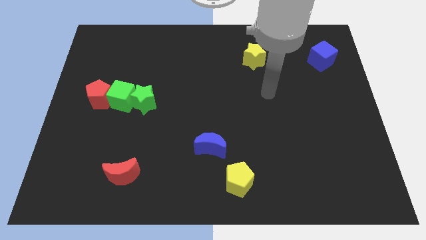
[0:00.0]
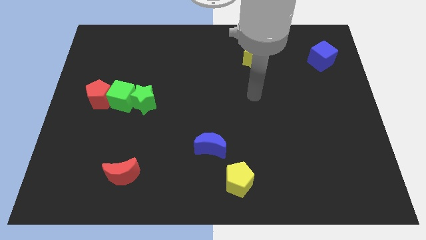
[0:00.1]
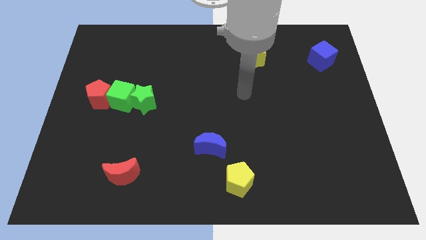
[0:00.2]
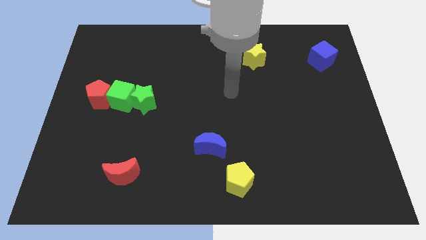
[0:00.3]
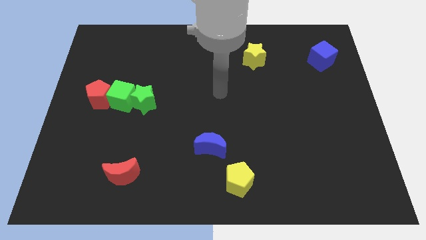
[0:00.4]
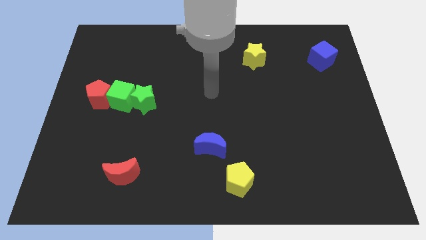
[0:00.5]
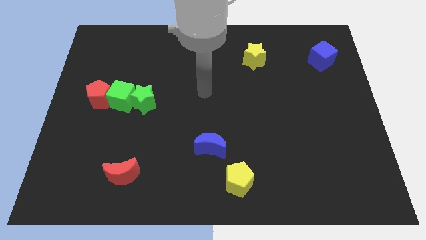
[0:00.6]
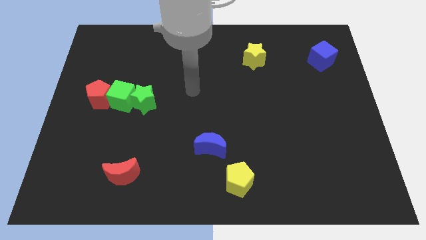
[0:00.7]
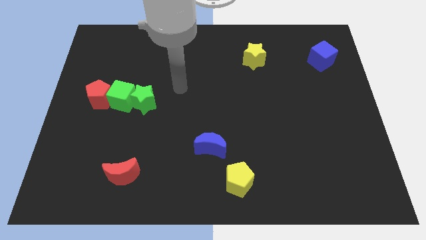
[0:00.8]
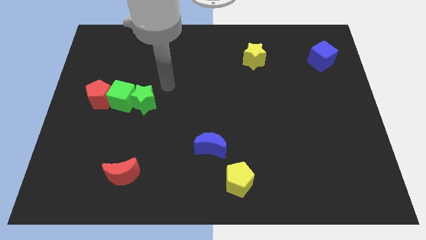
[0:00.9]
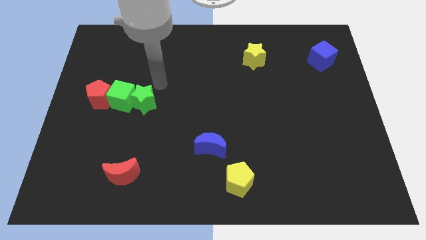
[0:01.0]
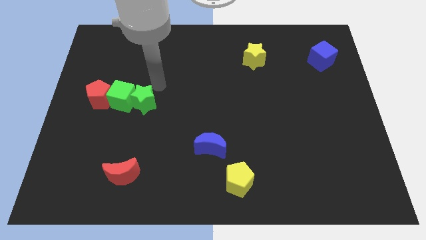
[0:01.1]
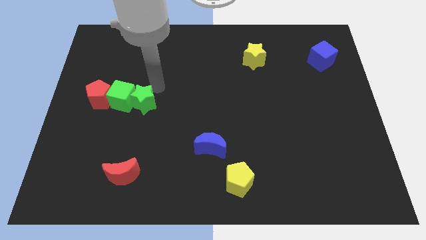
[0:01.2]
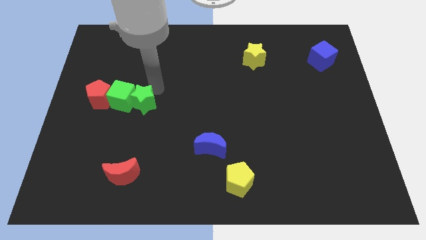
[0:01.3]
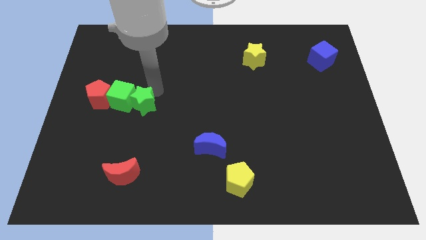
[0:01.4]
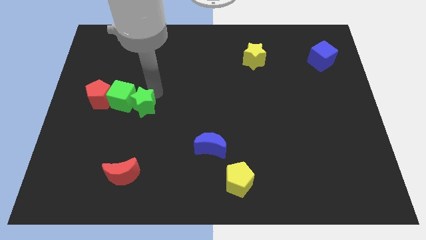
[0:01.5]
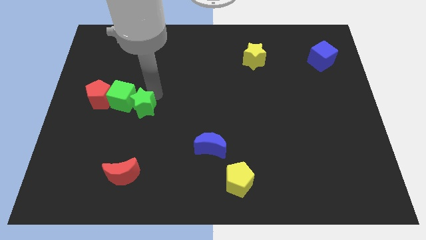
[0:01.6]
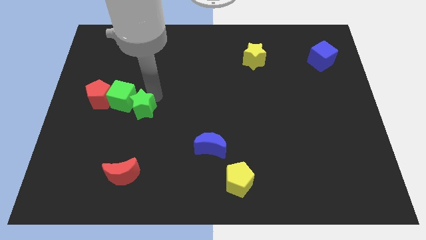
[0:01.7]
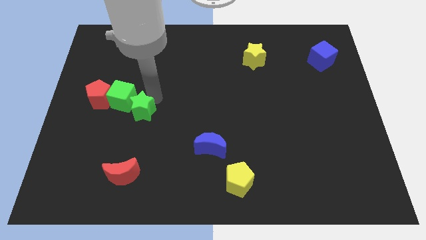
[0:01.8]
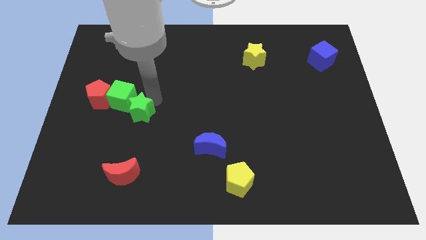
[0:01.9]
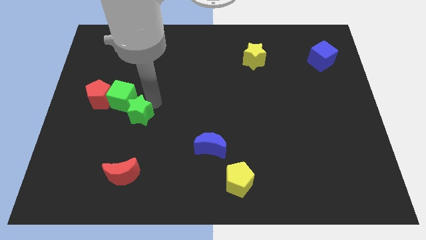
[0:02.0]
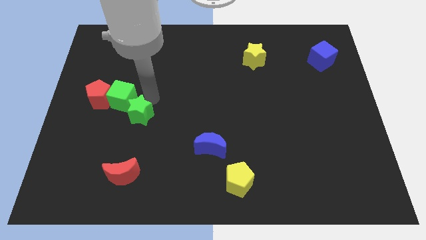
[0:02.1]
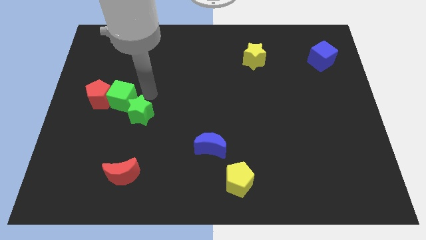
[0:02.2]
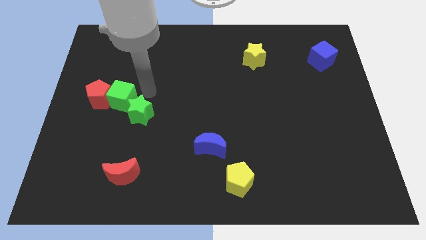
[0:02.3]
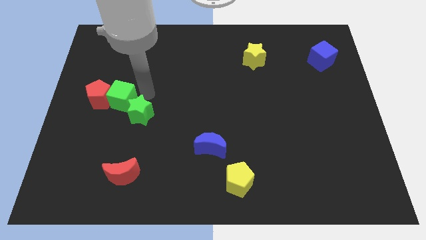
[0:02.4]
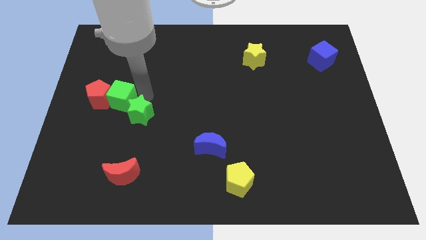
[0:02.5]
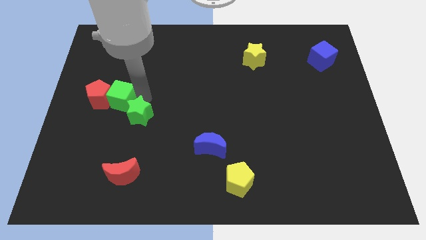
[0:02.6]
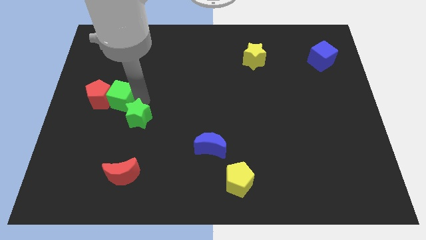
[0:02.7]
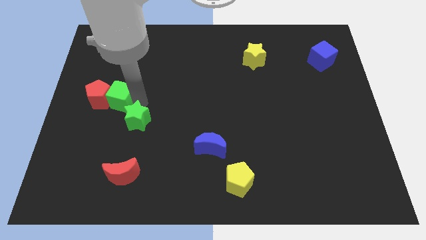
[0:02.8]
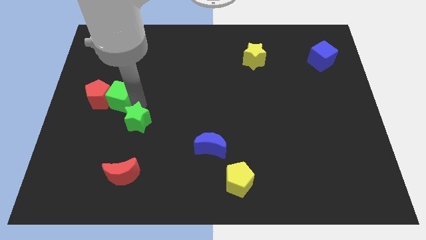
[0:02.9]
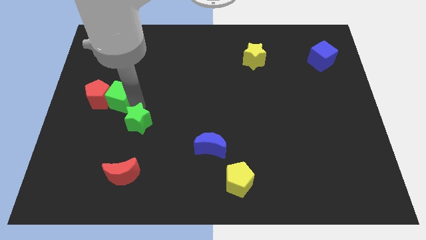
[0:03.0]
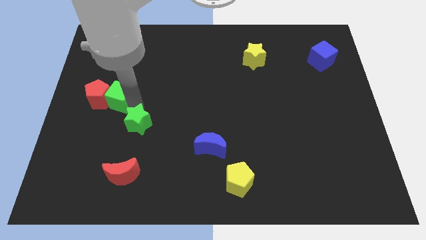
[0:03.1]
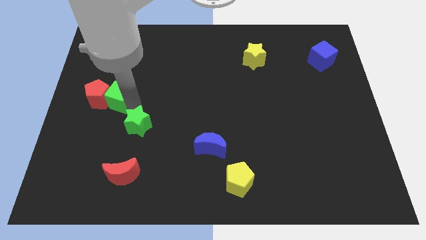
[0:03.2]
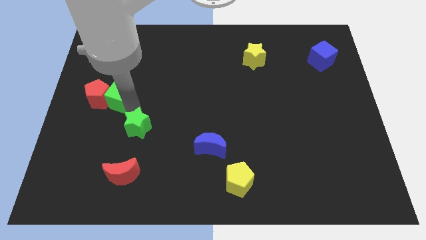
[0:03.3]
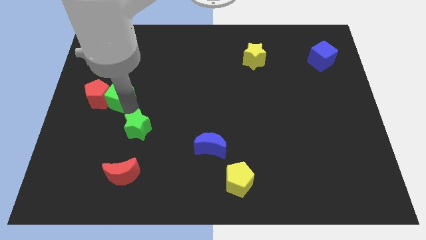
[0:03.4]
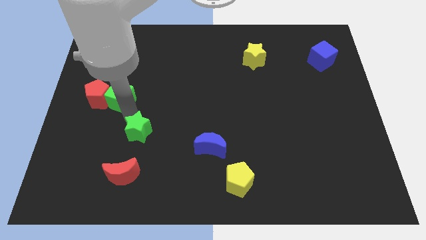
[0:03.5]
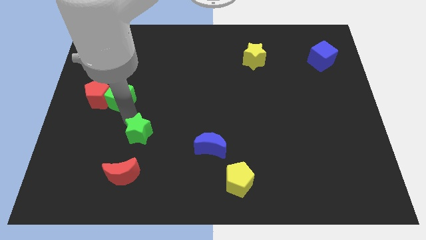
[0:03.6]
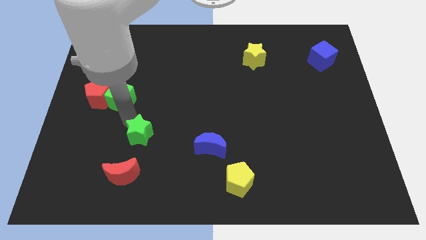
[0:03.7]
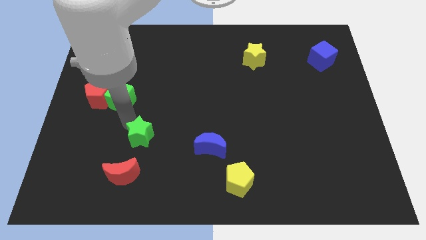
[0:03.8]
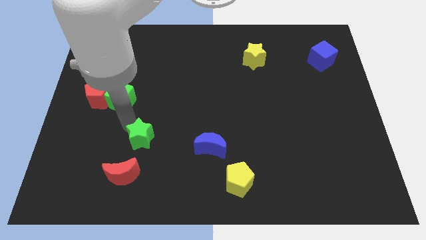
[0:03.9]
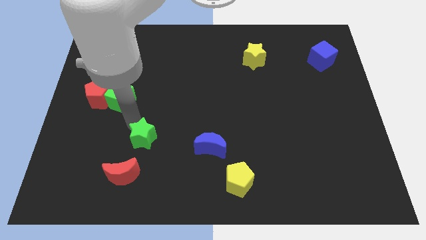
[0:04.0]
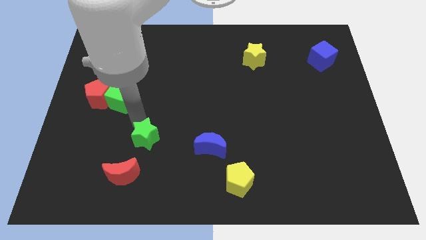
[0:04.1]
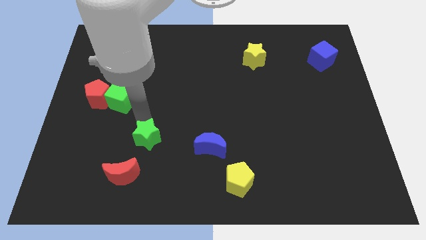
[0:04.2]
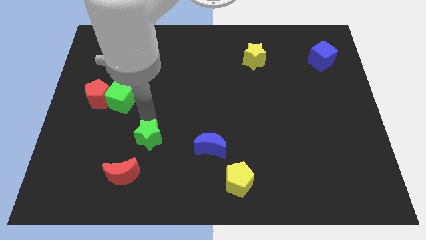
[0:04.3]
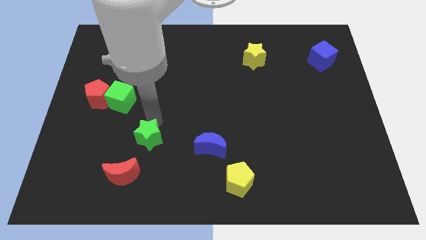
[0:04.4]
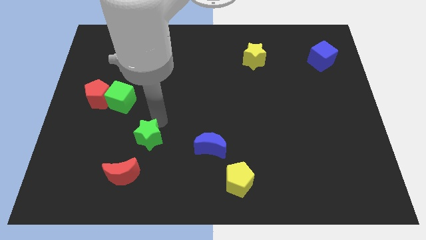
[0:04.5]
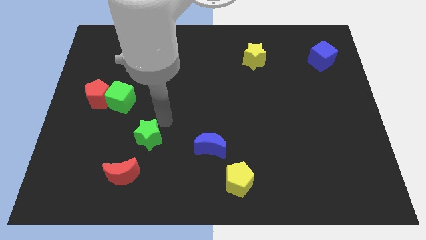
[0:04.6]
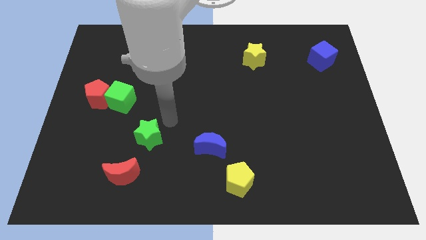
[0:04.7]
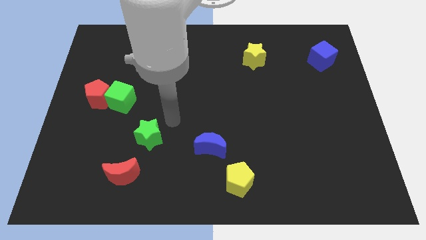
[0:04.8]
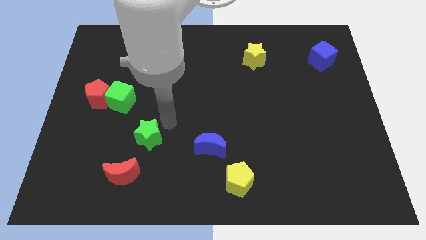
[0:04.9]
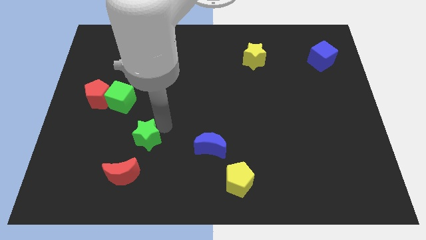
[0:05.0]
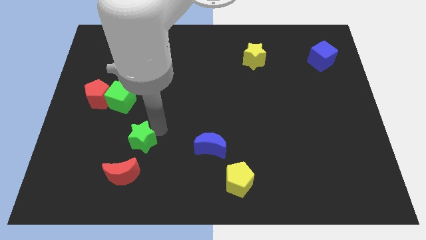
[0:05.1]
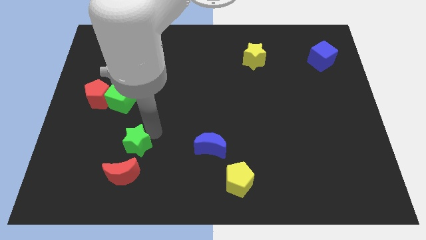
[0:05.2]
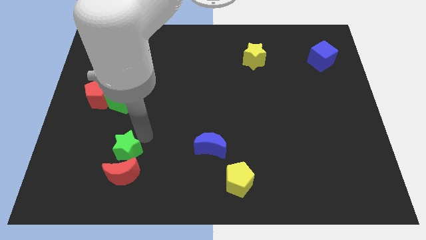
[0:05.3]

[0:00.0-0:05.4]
push the green star next to the red moon

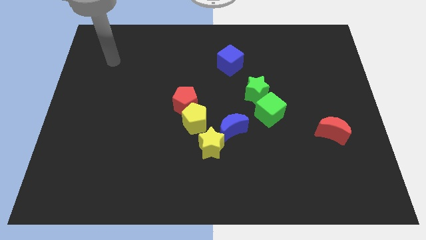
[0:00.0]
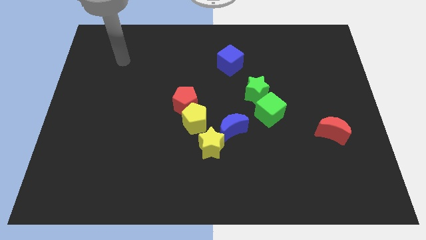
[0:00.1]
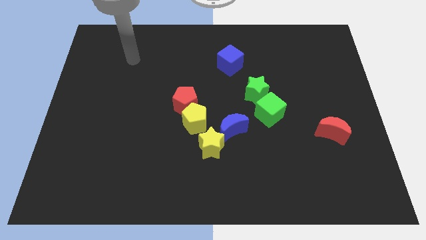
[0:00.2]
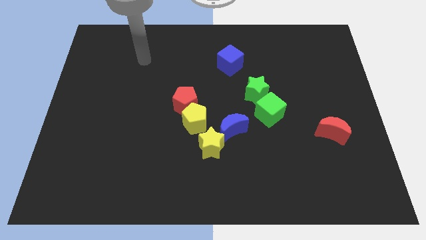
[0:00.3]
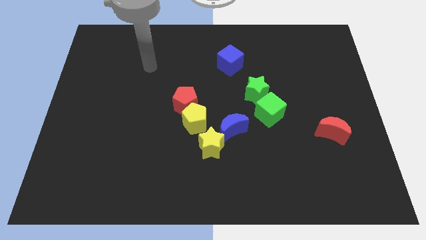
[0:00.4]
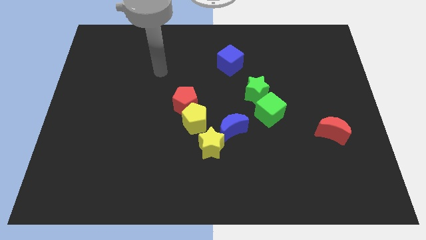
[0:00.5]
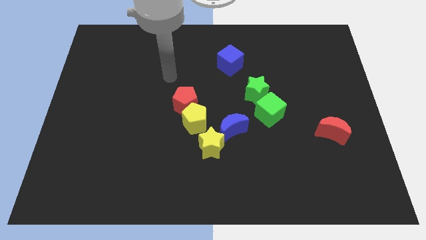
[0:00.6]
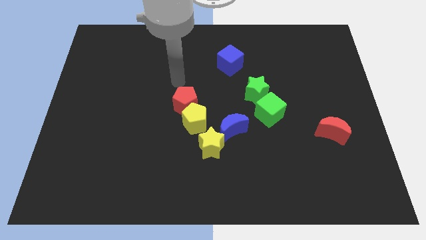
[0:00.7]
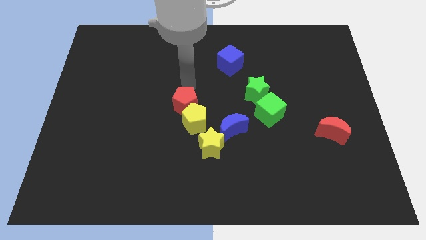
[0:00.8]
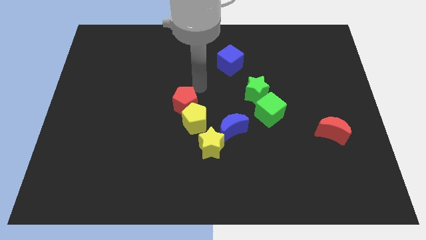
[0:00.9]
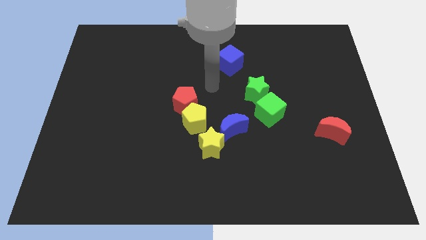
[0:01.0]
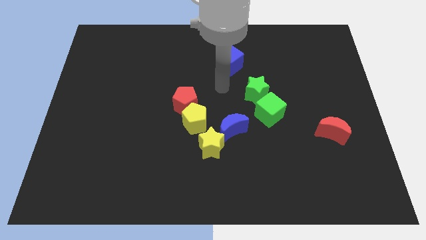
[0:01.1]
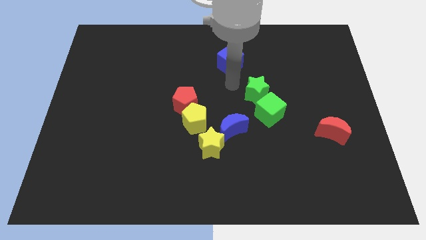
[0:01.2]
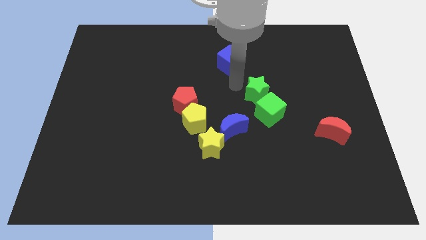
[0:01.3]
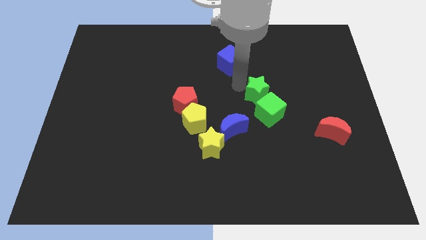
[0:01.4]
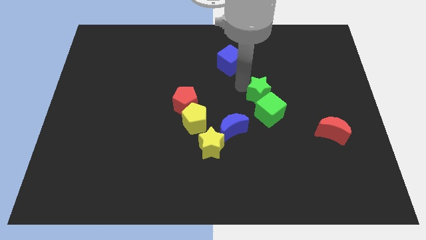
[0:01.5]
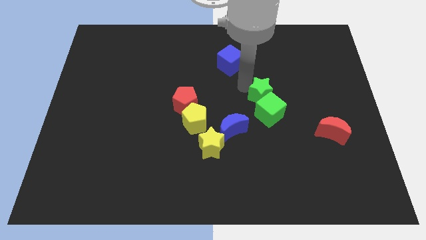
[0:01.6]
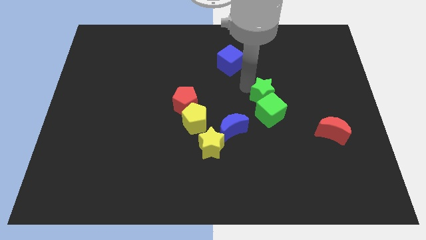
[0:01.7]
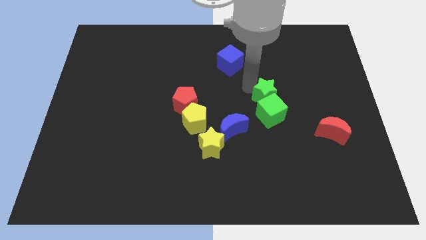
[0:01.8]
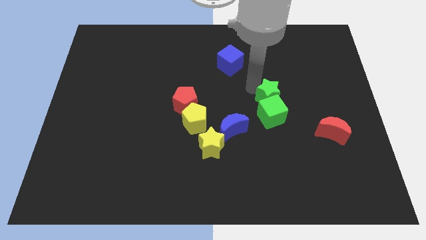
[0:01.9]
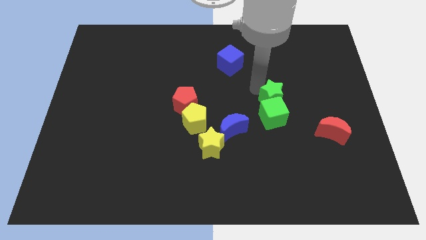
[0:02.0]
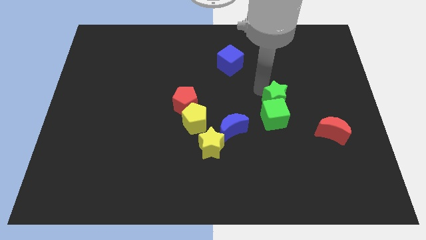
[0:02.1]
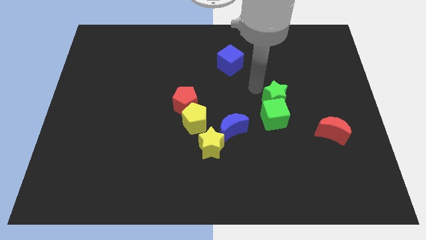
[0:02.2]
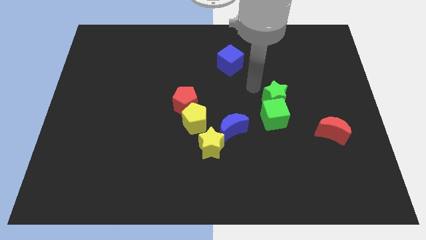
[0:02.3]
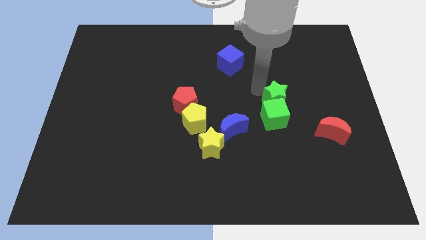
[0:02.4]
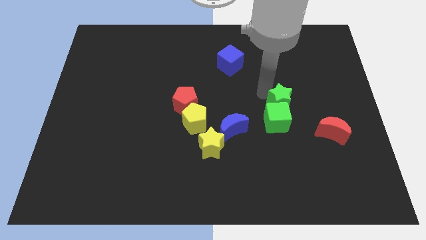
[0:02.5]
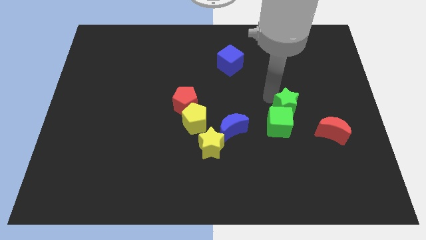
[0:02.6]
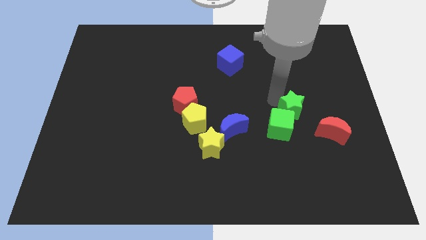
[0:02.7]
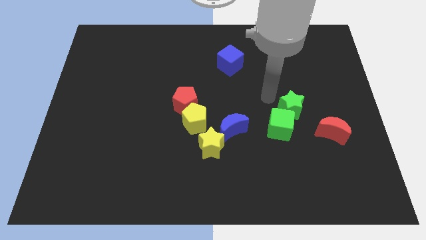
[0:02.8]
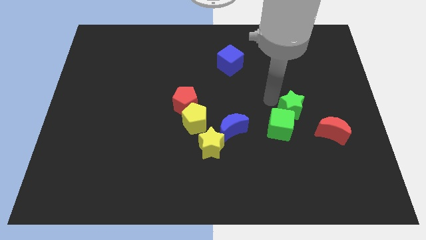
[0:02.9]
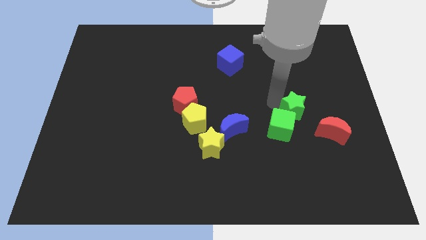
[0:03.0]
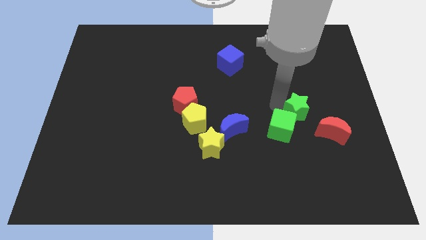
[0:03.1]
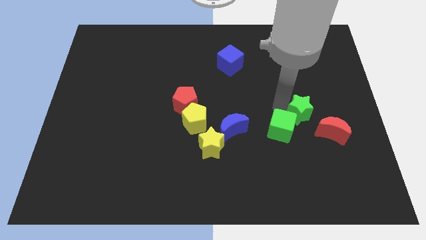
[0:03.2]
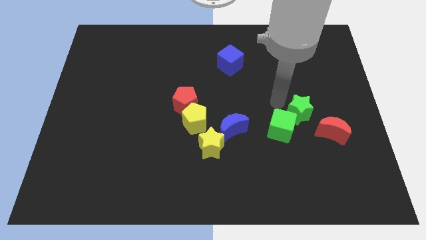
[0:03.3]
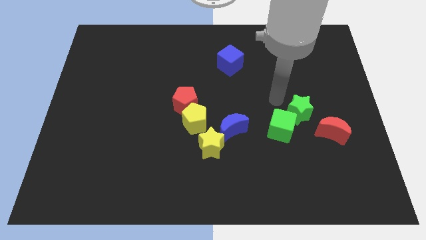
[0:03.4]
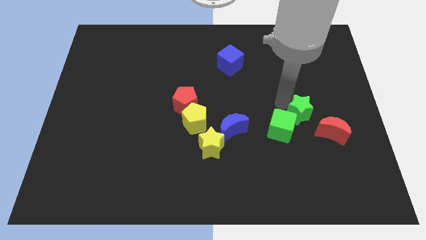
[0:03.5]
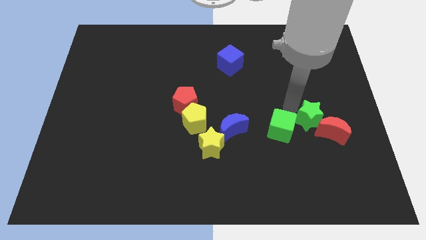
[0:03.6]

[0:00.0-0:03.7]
move the green star to the red moon
